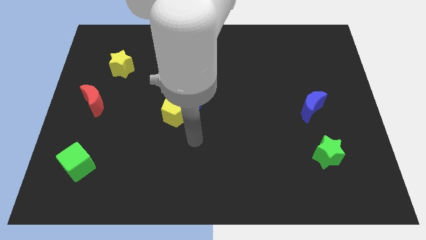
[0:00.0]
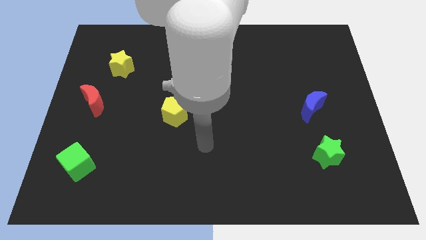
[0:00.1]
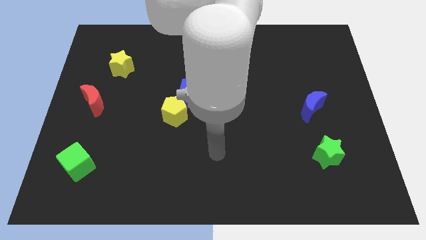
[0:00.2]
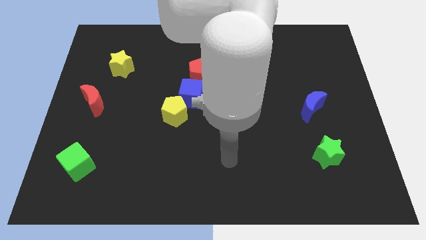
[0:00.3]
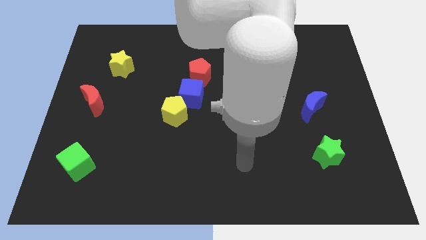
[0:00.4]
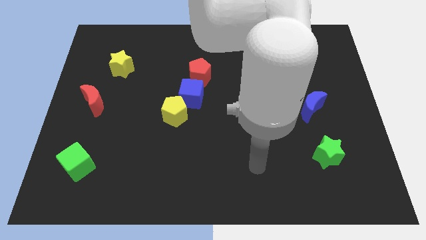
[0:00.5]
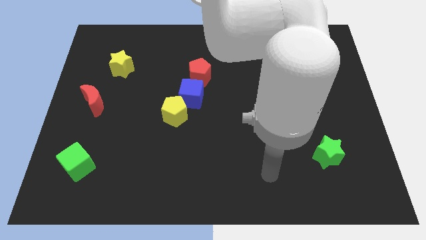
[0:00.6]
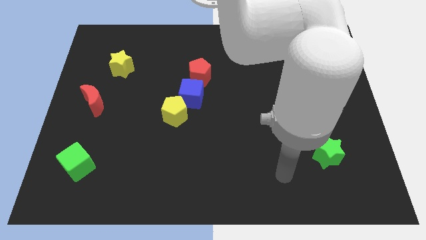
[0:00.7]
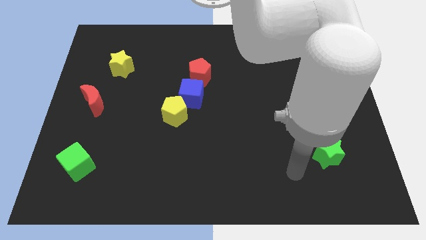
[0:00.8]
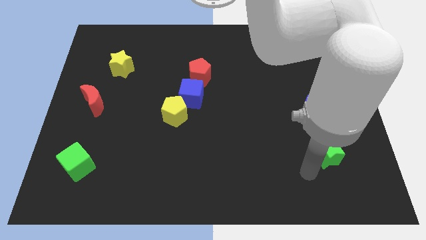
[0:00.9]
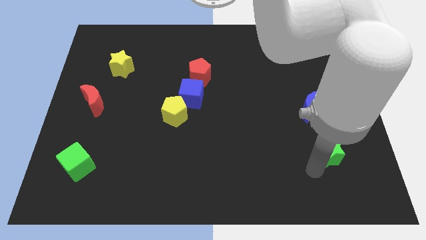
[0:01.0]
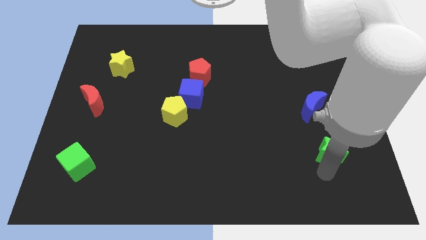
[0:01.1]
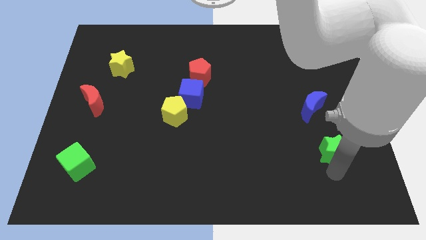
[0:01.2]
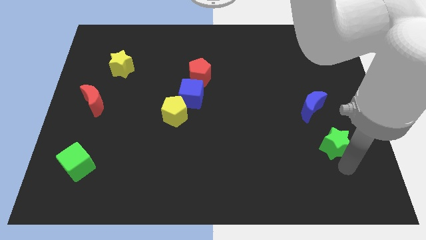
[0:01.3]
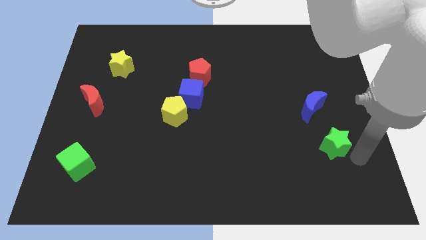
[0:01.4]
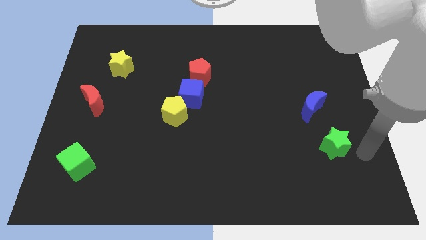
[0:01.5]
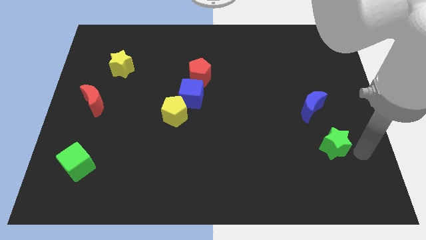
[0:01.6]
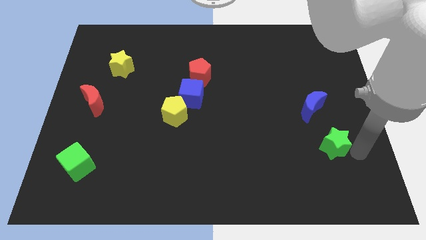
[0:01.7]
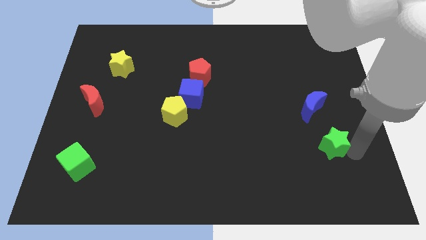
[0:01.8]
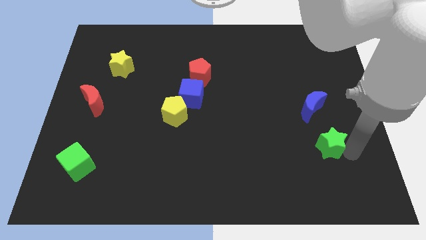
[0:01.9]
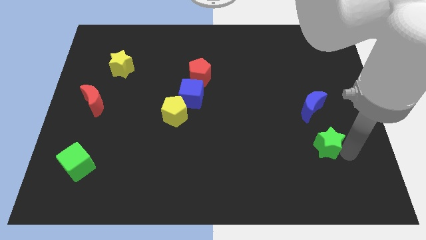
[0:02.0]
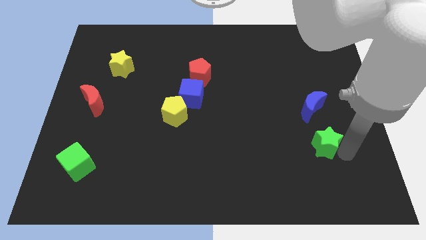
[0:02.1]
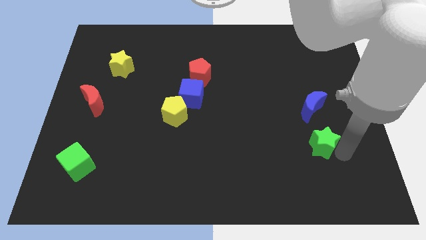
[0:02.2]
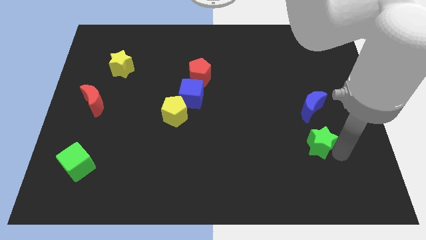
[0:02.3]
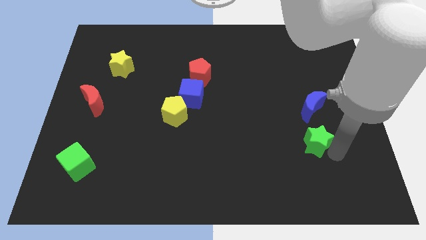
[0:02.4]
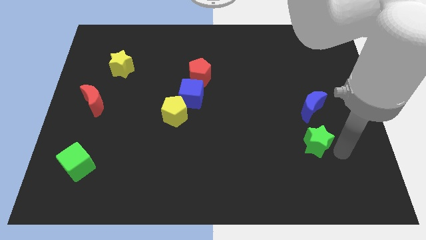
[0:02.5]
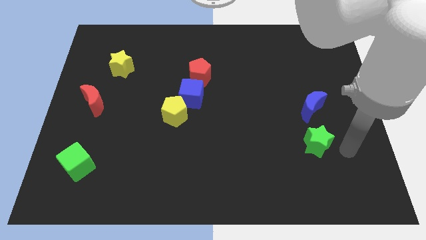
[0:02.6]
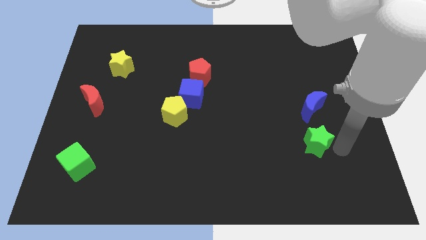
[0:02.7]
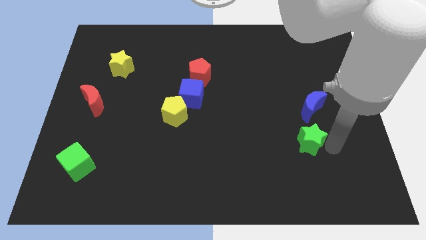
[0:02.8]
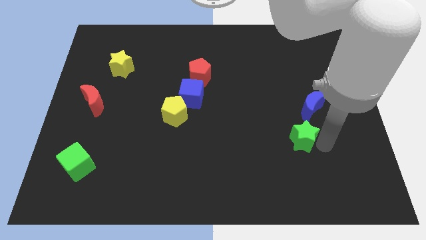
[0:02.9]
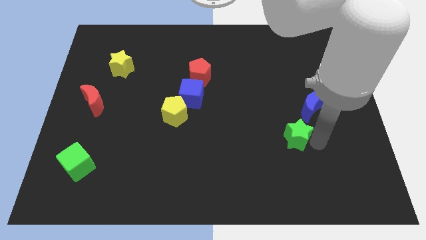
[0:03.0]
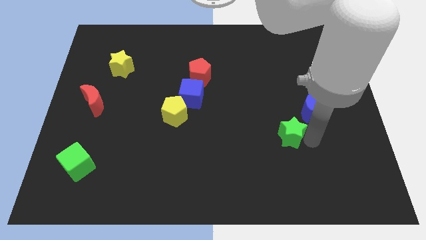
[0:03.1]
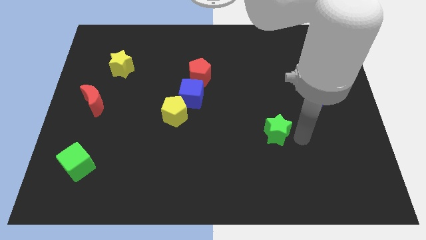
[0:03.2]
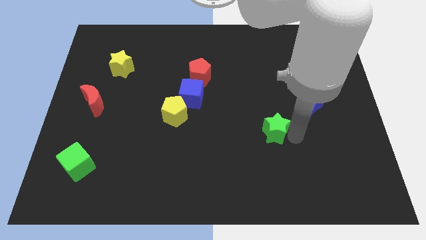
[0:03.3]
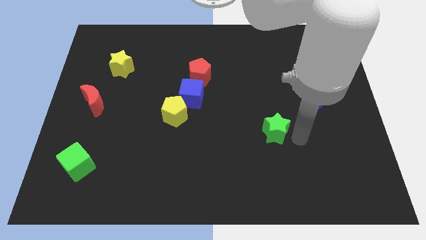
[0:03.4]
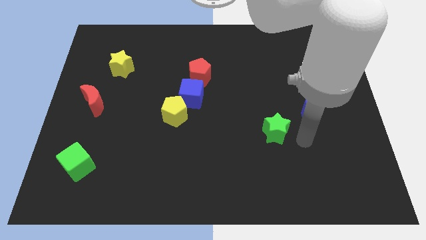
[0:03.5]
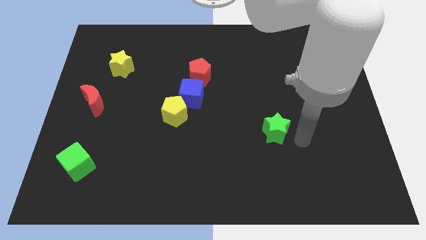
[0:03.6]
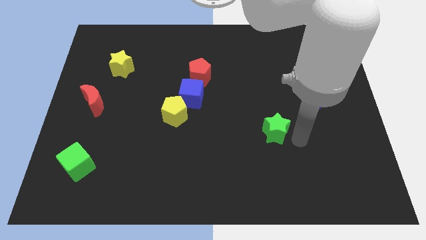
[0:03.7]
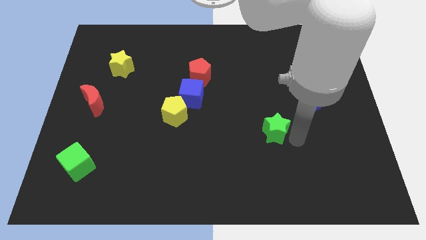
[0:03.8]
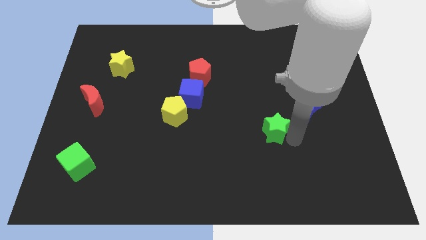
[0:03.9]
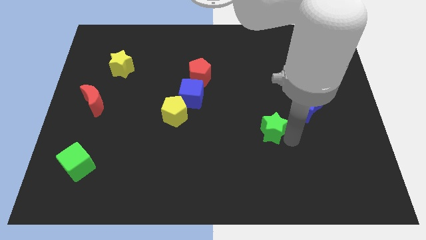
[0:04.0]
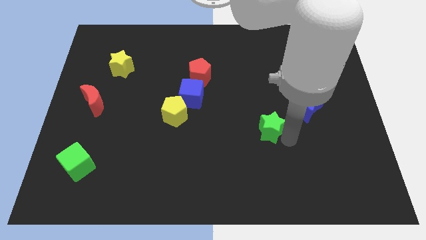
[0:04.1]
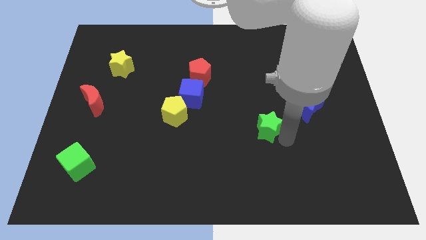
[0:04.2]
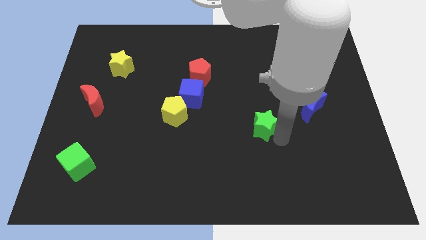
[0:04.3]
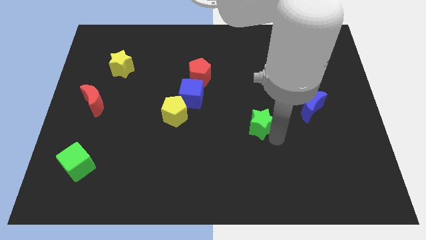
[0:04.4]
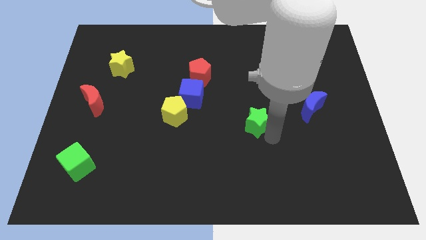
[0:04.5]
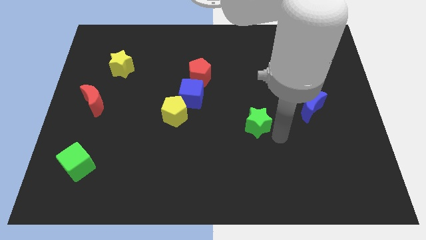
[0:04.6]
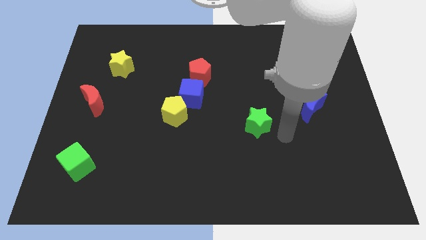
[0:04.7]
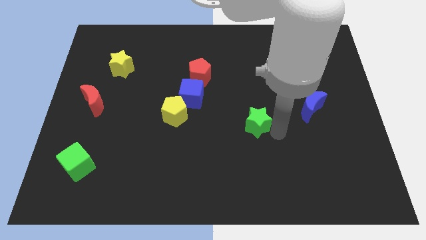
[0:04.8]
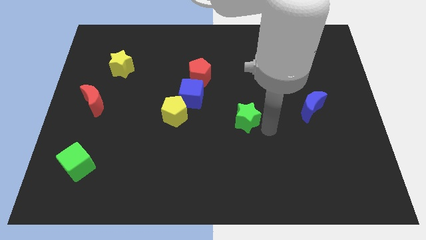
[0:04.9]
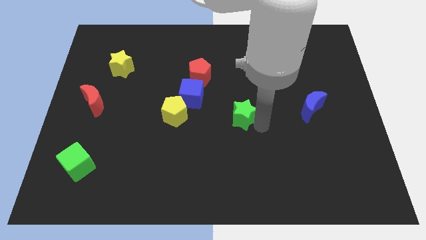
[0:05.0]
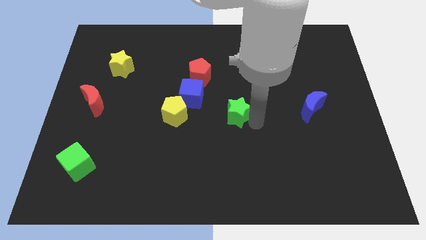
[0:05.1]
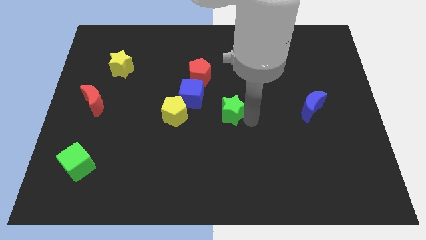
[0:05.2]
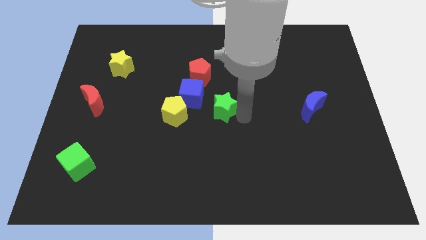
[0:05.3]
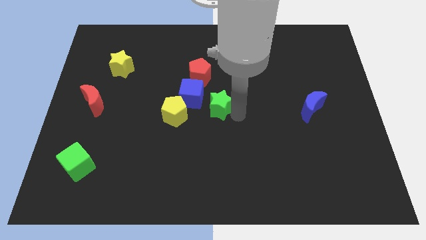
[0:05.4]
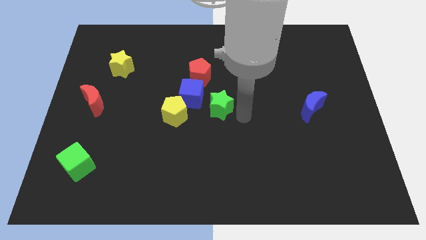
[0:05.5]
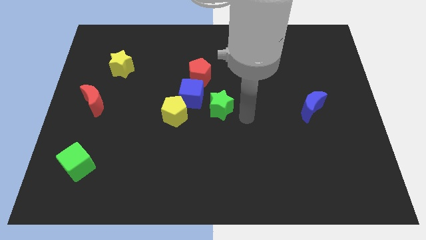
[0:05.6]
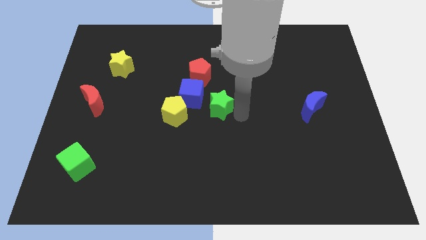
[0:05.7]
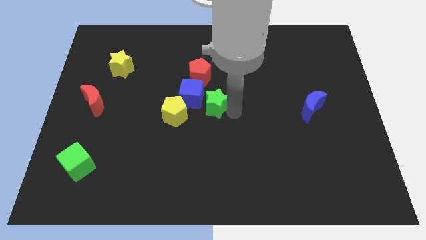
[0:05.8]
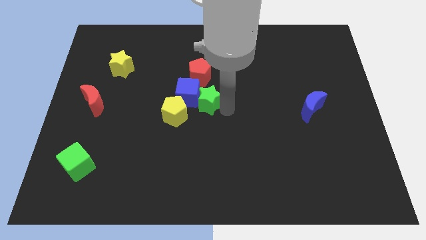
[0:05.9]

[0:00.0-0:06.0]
move the green star close to the blue cube

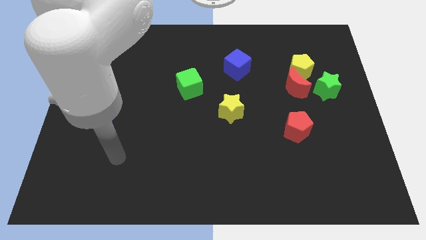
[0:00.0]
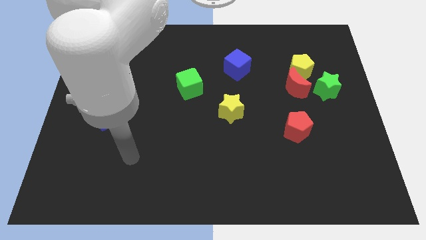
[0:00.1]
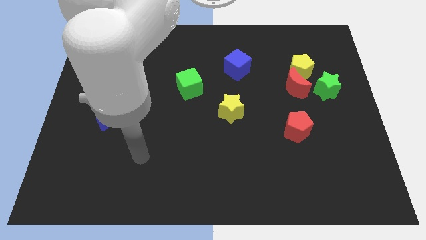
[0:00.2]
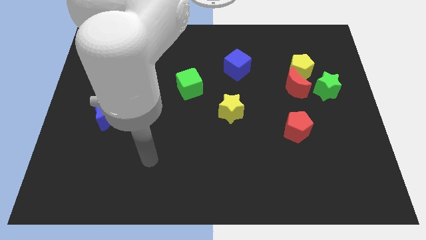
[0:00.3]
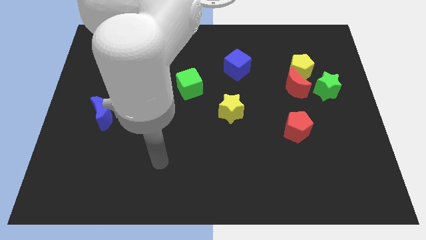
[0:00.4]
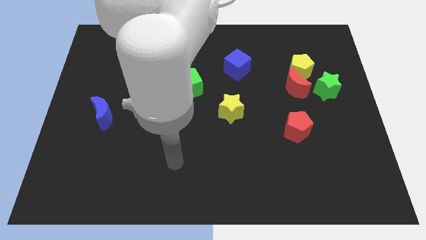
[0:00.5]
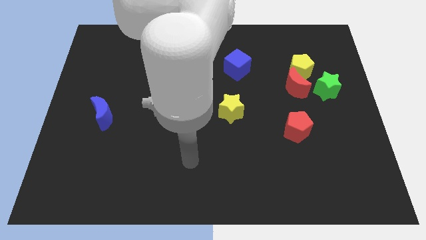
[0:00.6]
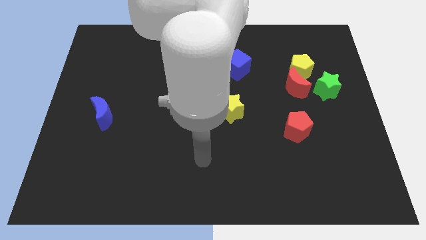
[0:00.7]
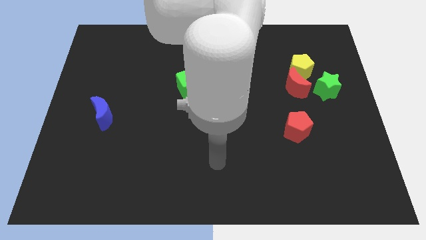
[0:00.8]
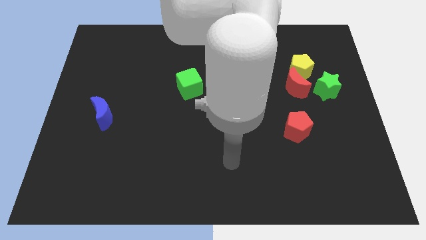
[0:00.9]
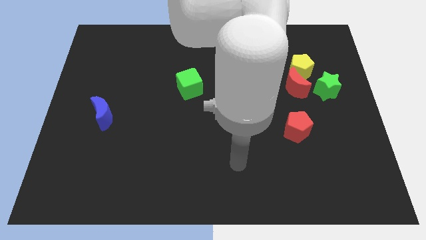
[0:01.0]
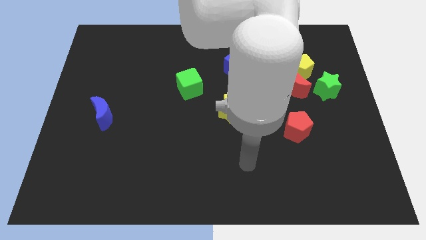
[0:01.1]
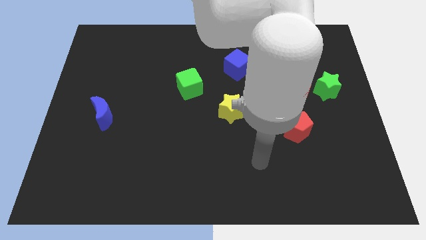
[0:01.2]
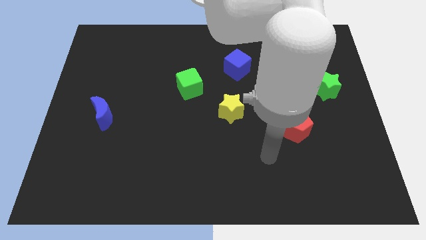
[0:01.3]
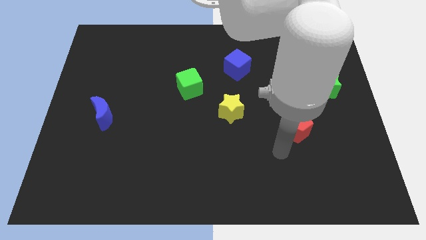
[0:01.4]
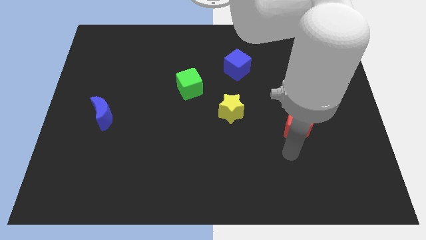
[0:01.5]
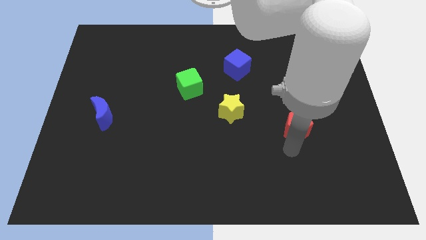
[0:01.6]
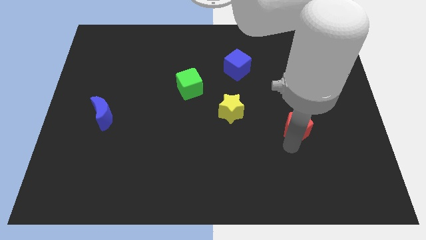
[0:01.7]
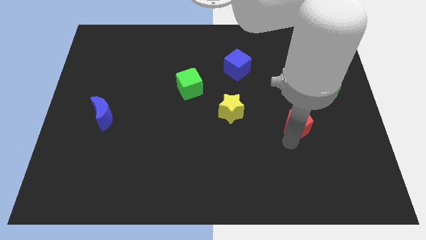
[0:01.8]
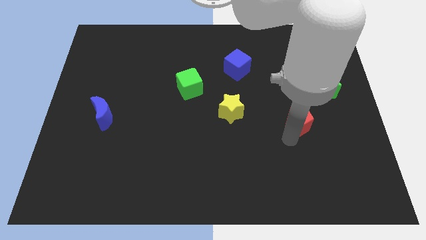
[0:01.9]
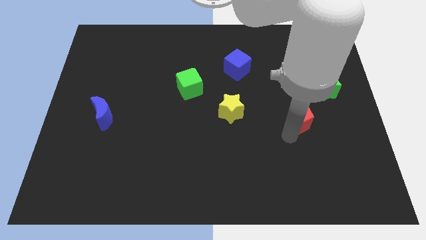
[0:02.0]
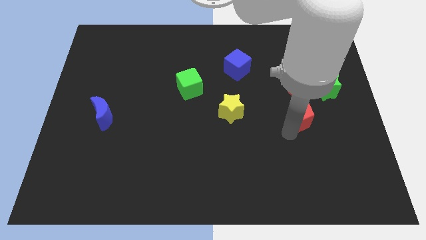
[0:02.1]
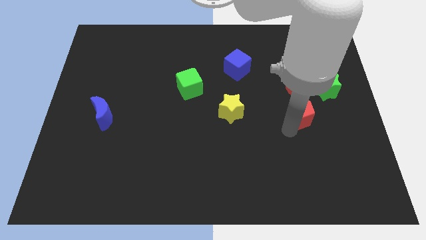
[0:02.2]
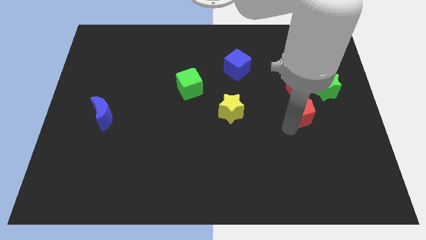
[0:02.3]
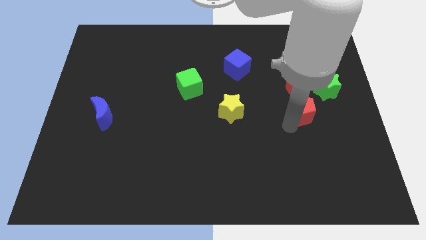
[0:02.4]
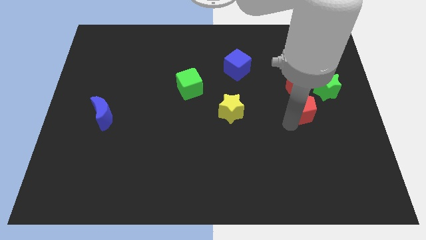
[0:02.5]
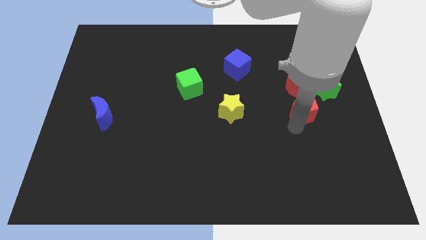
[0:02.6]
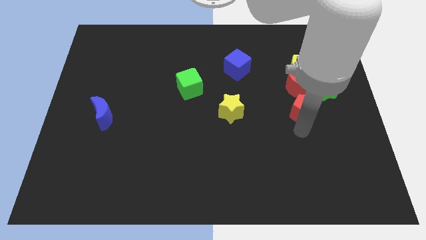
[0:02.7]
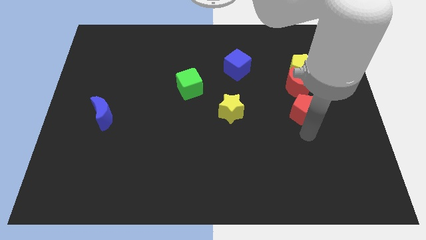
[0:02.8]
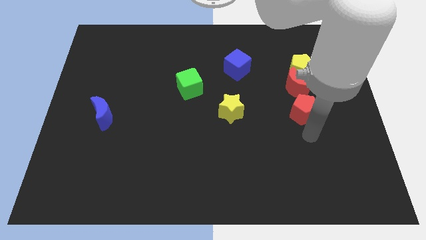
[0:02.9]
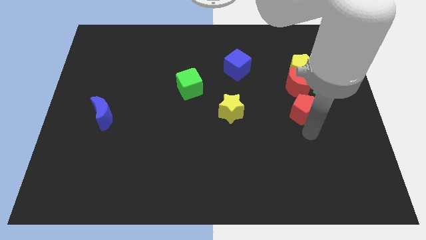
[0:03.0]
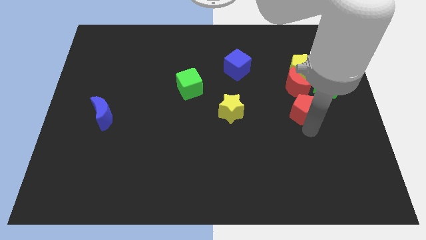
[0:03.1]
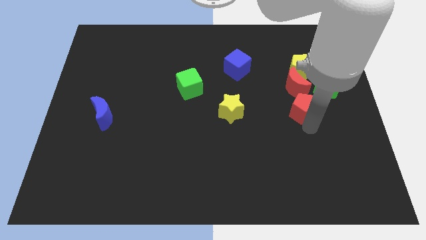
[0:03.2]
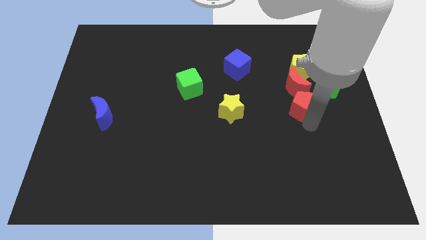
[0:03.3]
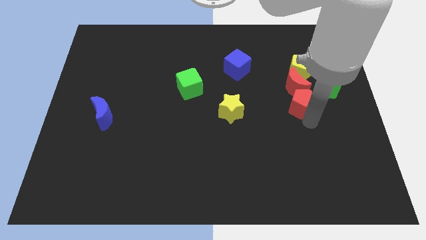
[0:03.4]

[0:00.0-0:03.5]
slide the red pentagon close to the red moon
